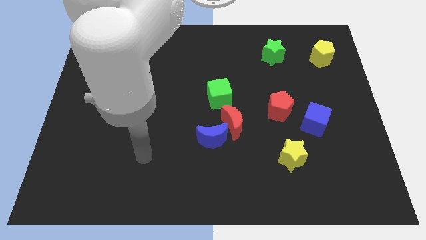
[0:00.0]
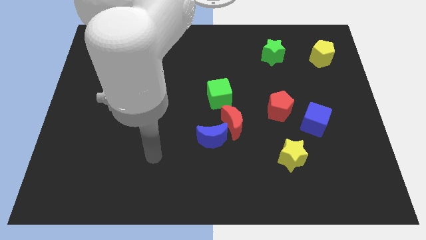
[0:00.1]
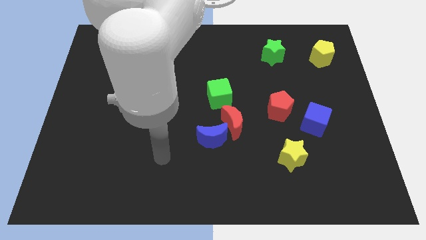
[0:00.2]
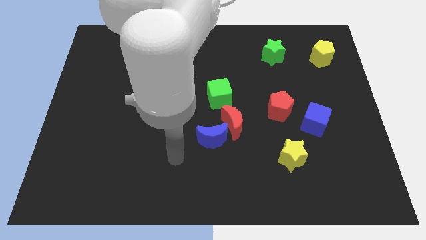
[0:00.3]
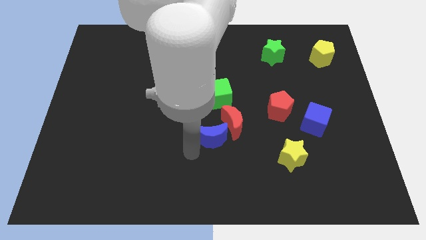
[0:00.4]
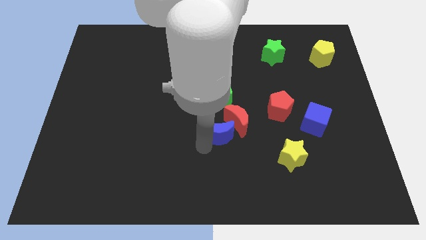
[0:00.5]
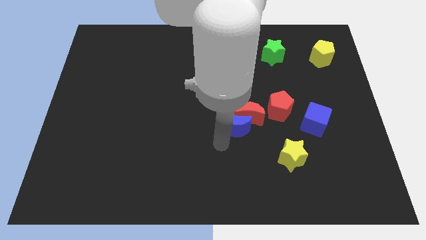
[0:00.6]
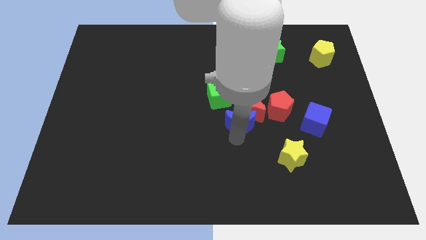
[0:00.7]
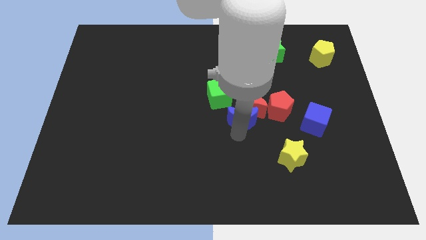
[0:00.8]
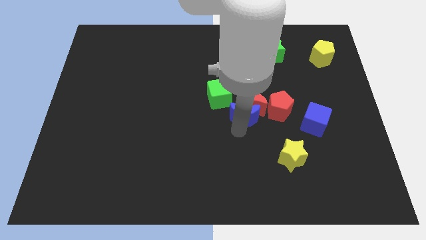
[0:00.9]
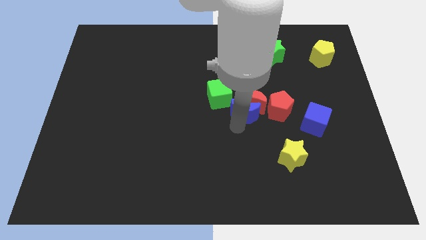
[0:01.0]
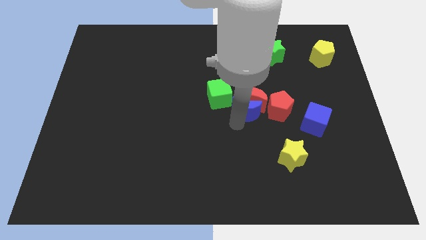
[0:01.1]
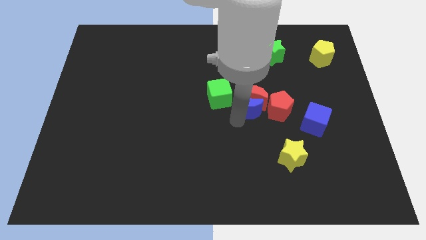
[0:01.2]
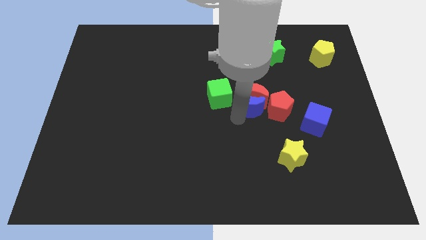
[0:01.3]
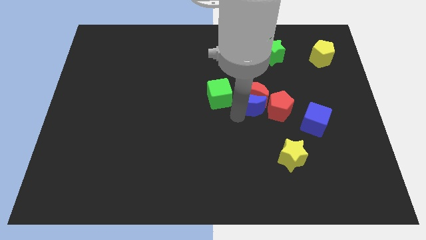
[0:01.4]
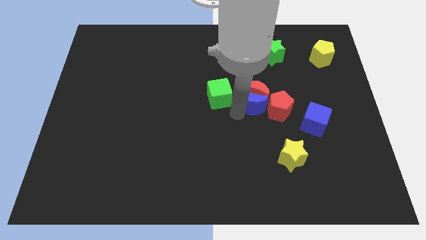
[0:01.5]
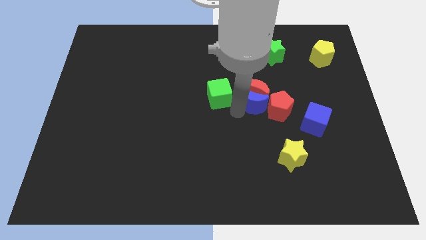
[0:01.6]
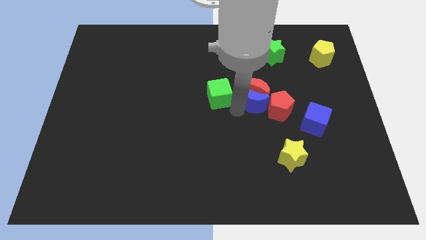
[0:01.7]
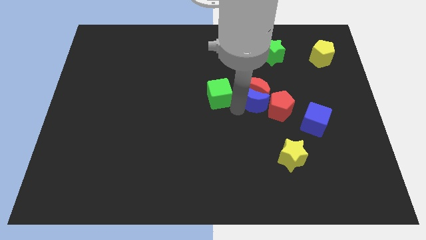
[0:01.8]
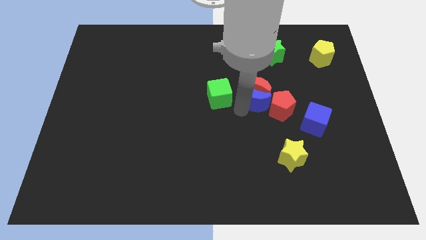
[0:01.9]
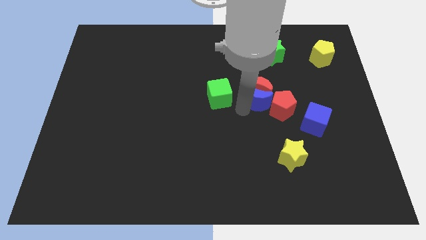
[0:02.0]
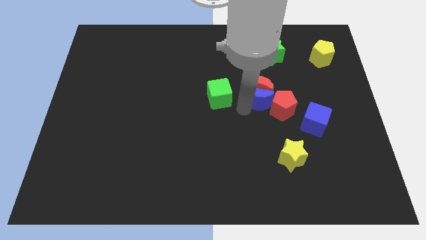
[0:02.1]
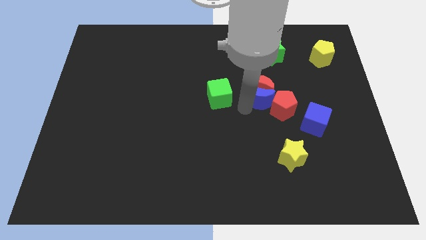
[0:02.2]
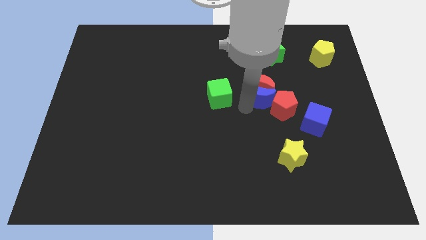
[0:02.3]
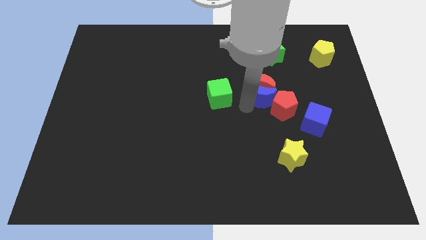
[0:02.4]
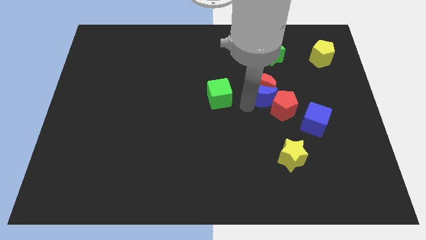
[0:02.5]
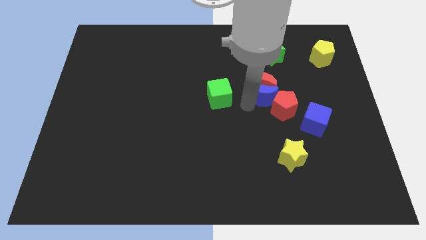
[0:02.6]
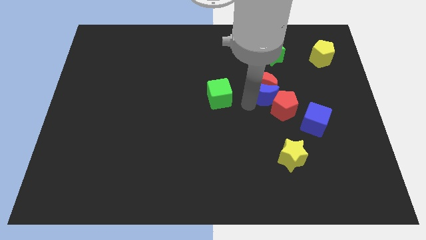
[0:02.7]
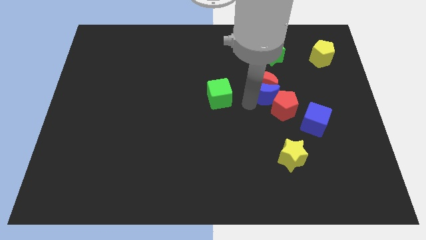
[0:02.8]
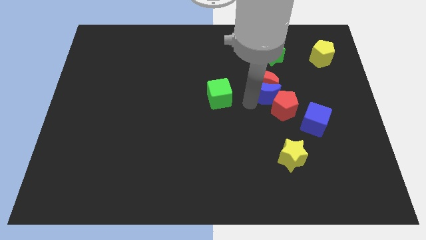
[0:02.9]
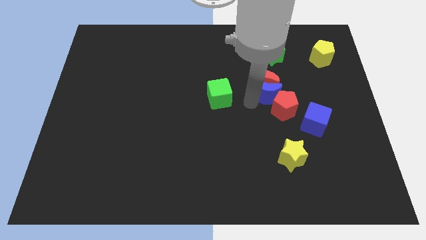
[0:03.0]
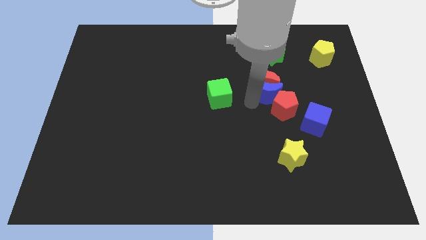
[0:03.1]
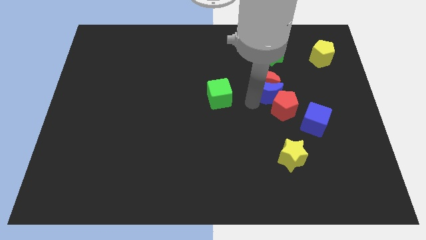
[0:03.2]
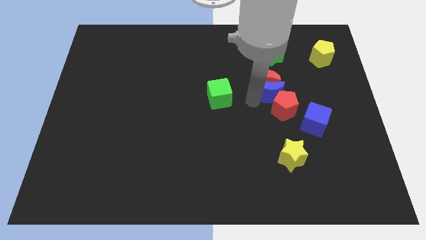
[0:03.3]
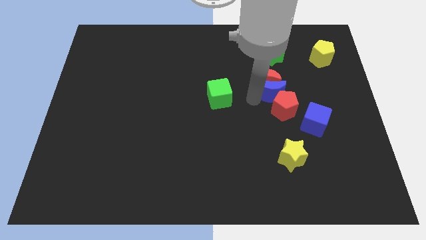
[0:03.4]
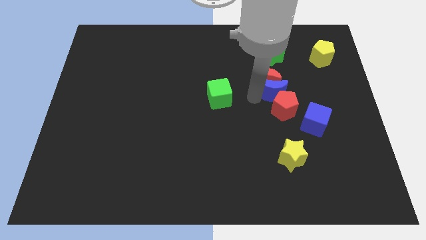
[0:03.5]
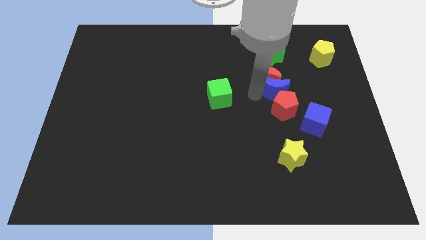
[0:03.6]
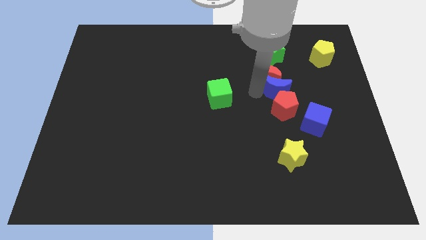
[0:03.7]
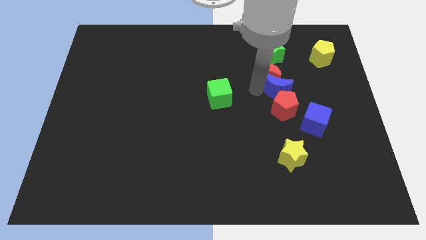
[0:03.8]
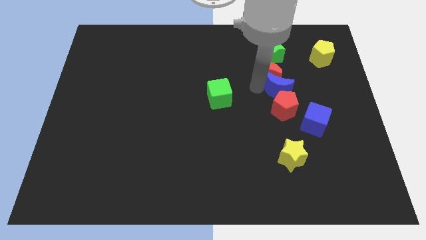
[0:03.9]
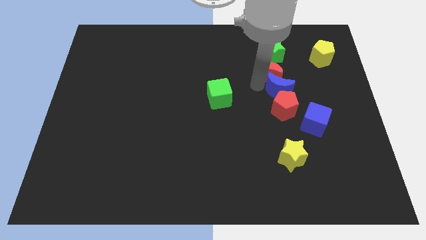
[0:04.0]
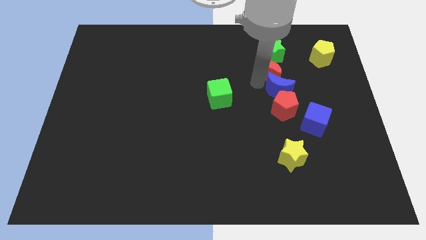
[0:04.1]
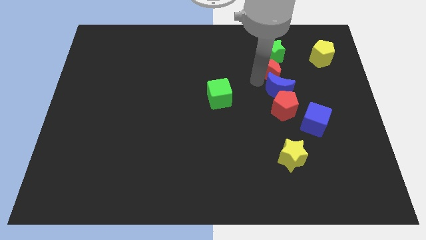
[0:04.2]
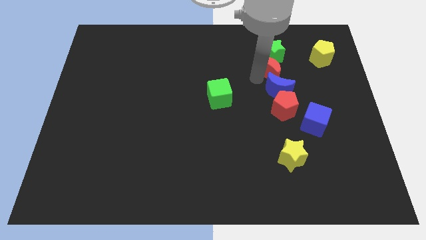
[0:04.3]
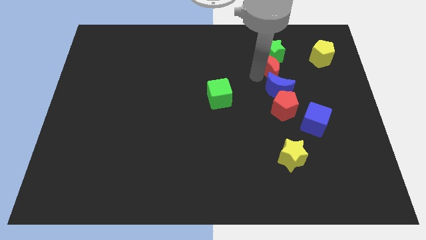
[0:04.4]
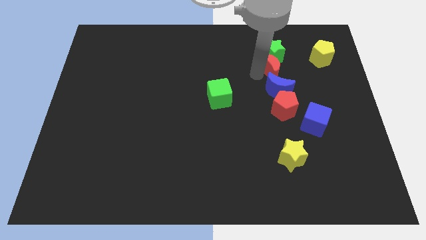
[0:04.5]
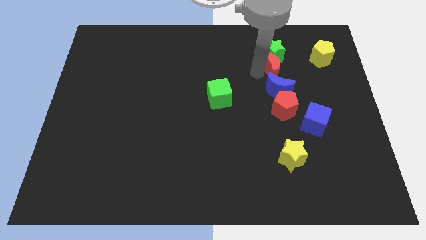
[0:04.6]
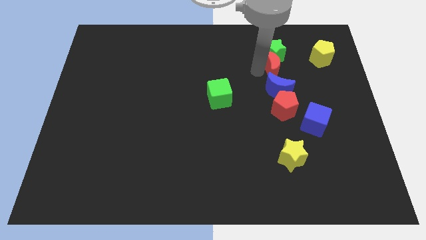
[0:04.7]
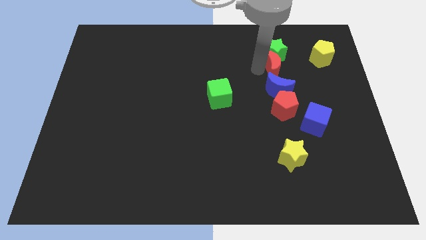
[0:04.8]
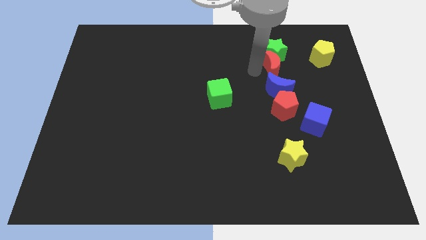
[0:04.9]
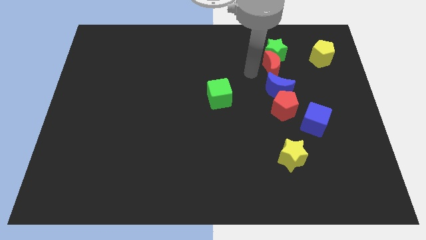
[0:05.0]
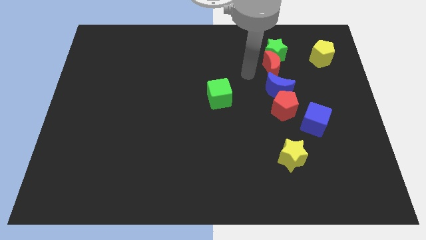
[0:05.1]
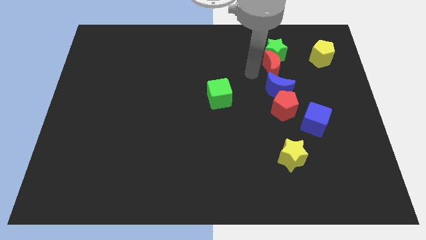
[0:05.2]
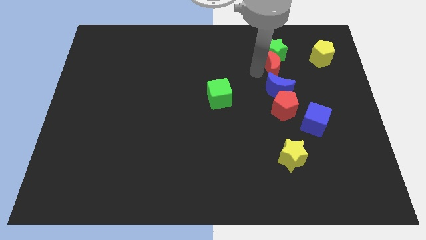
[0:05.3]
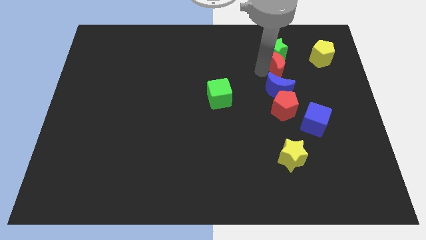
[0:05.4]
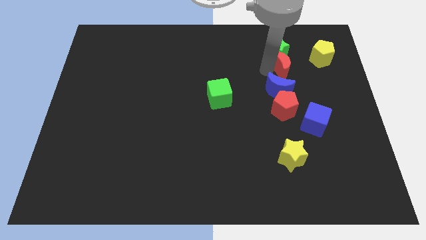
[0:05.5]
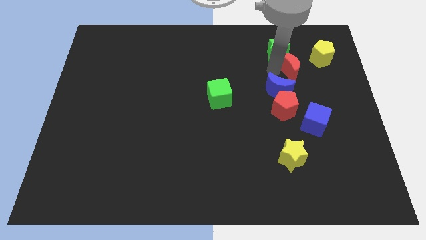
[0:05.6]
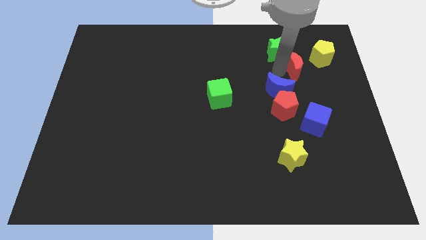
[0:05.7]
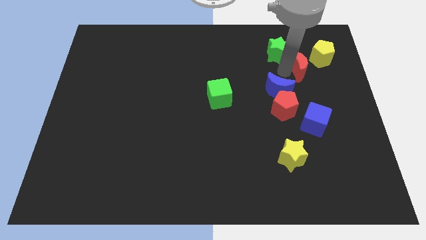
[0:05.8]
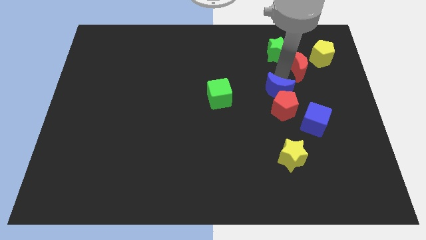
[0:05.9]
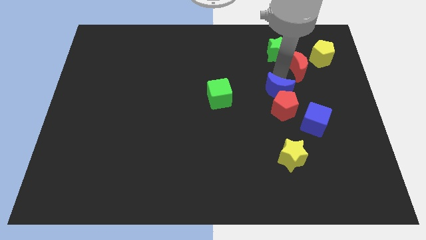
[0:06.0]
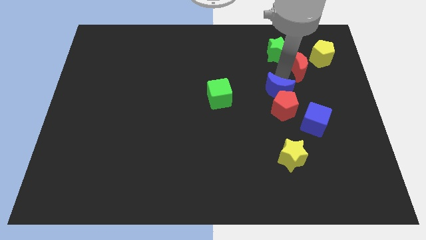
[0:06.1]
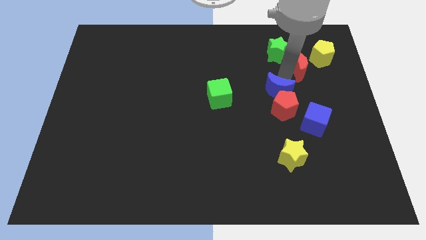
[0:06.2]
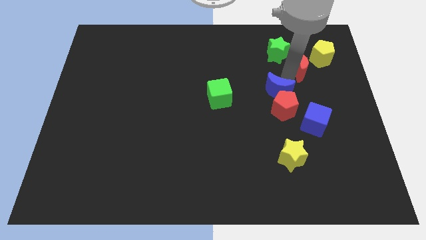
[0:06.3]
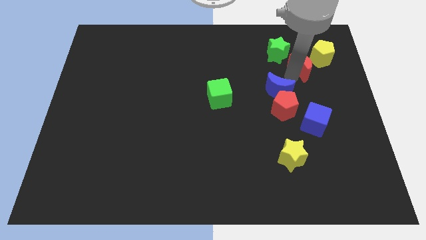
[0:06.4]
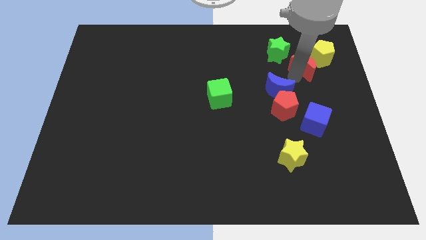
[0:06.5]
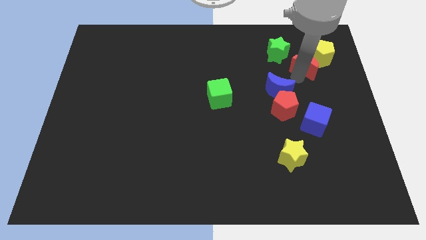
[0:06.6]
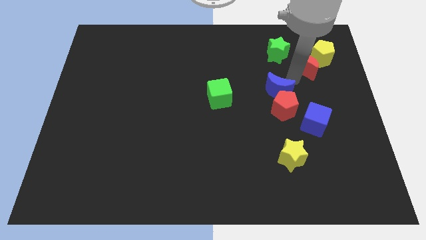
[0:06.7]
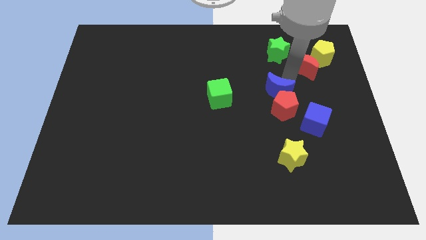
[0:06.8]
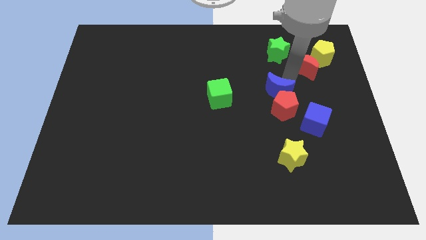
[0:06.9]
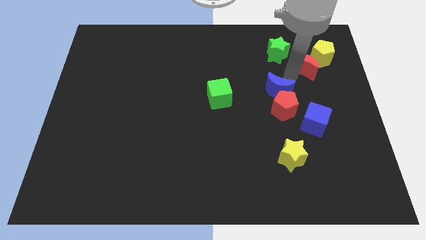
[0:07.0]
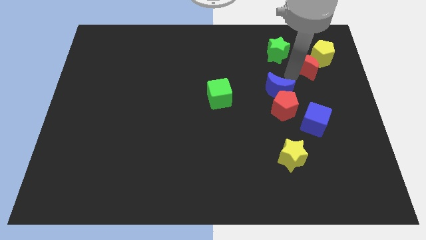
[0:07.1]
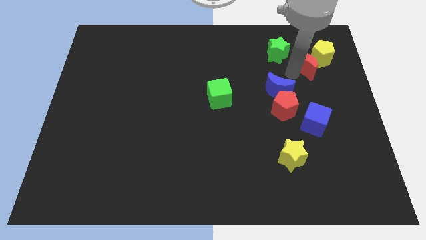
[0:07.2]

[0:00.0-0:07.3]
move the red moon to the yellow pentagon
